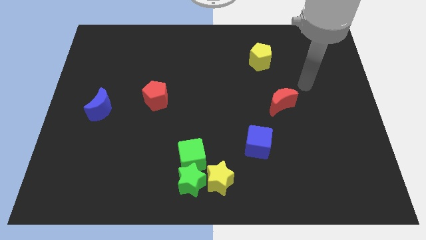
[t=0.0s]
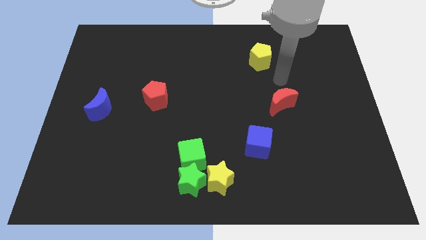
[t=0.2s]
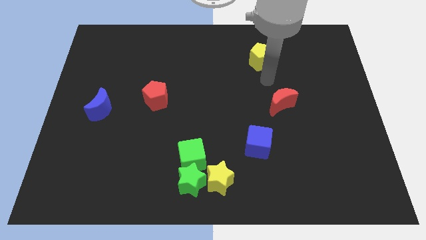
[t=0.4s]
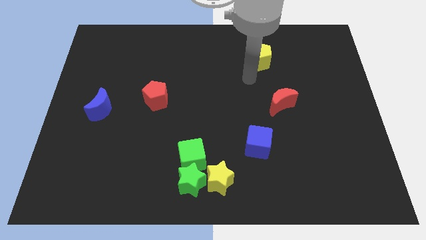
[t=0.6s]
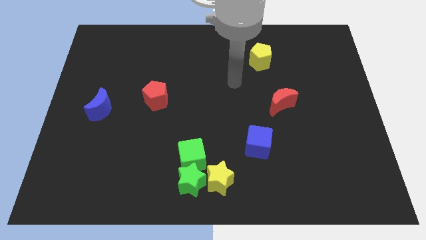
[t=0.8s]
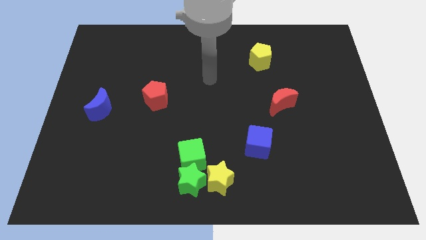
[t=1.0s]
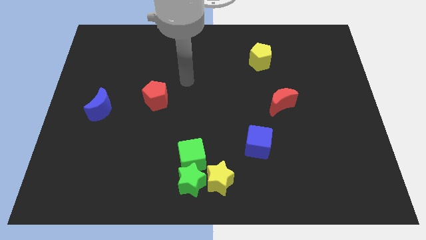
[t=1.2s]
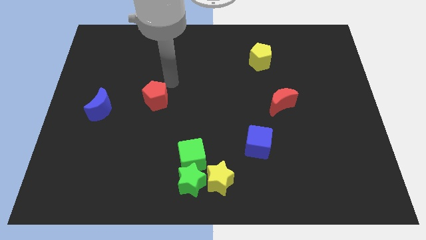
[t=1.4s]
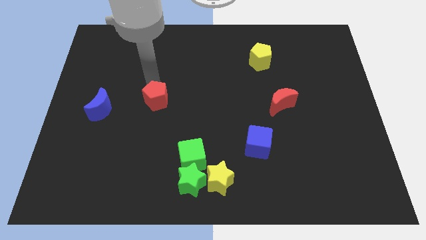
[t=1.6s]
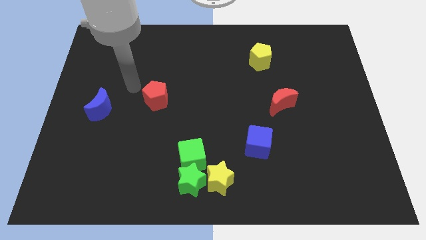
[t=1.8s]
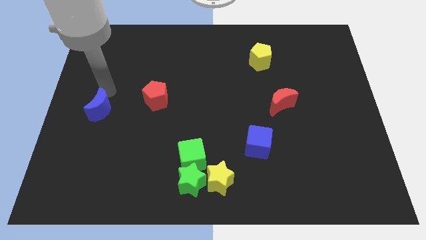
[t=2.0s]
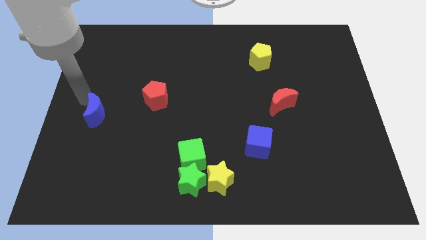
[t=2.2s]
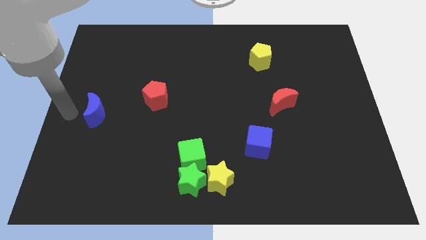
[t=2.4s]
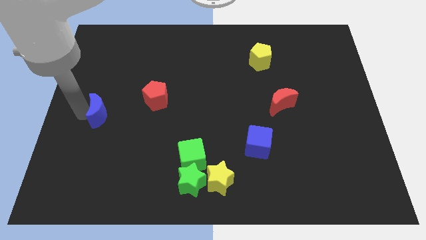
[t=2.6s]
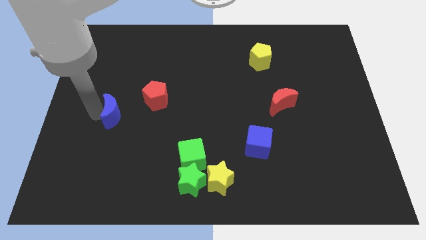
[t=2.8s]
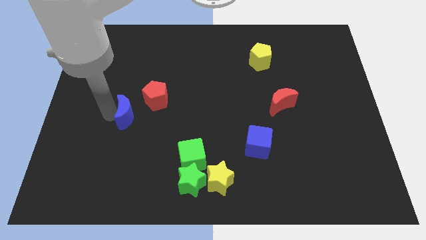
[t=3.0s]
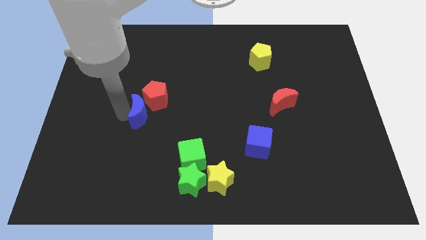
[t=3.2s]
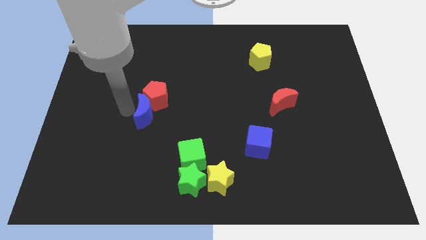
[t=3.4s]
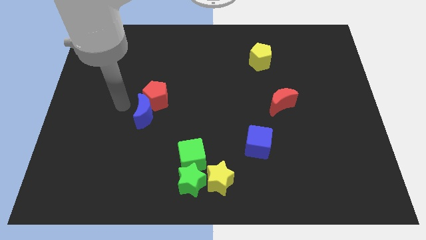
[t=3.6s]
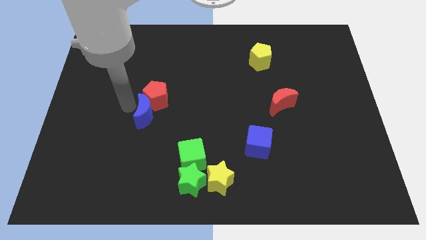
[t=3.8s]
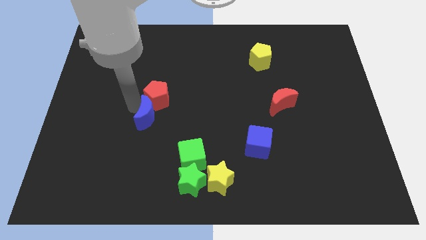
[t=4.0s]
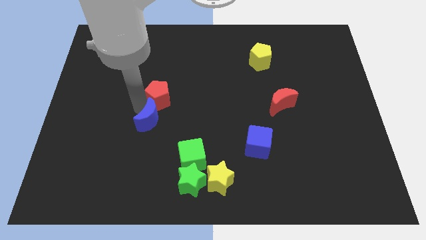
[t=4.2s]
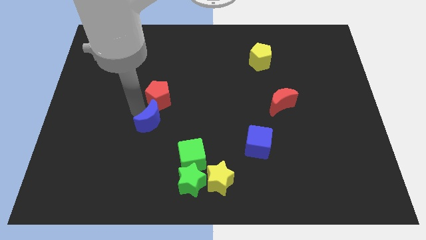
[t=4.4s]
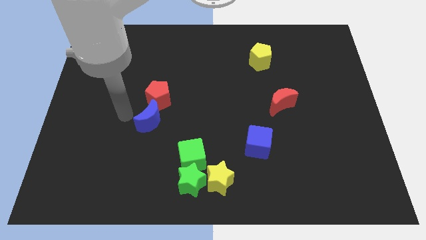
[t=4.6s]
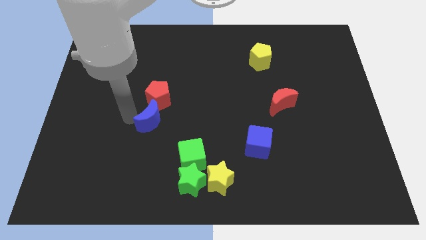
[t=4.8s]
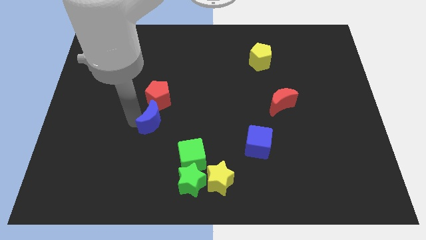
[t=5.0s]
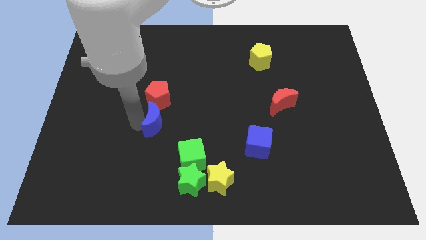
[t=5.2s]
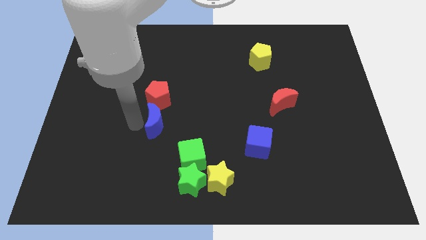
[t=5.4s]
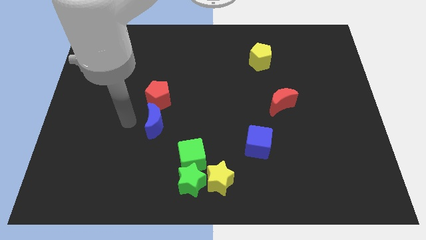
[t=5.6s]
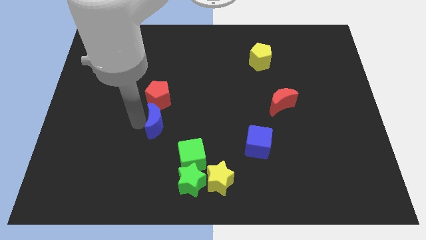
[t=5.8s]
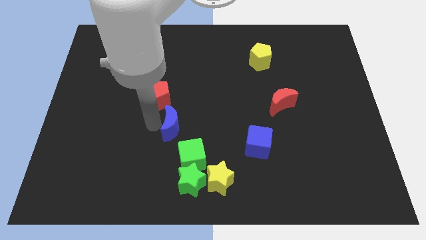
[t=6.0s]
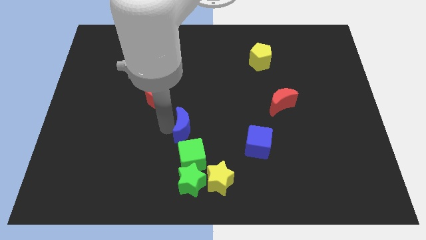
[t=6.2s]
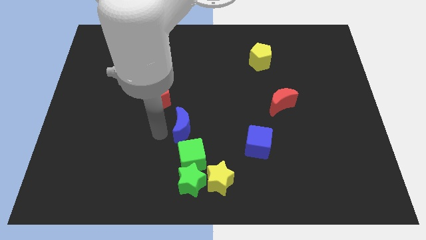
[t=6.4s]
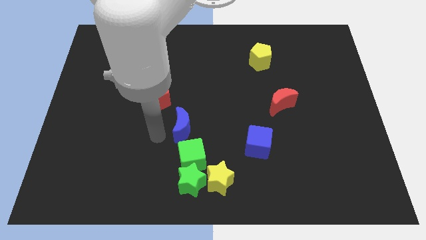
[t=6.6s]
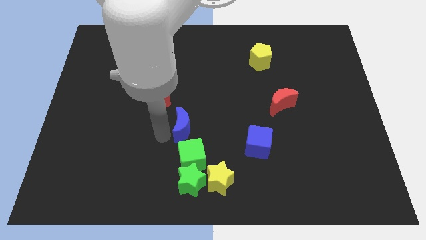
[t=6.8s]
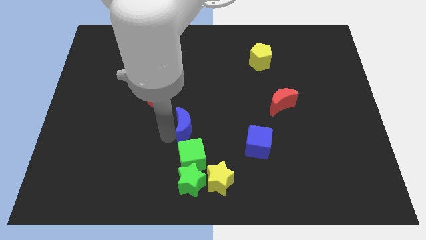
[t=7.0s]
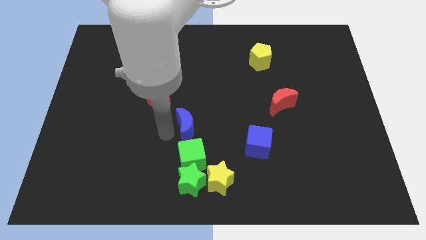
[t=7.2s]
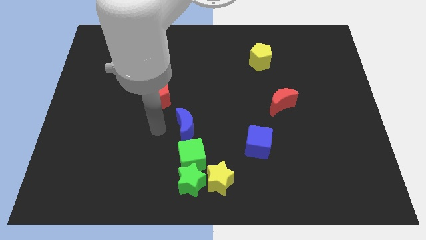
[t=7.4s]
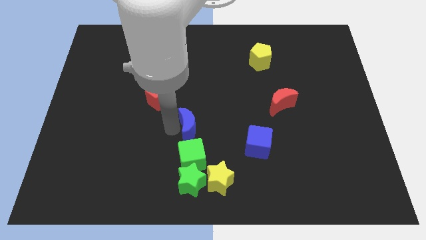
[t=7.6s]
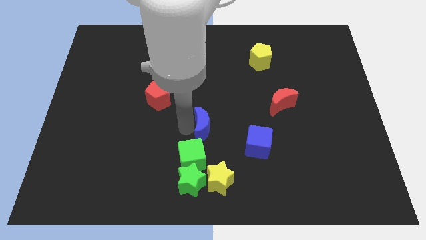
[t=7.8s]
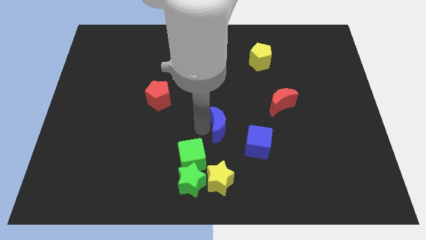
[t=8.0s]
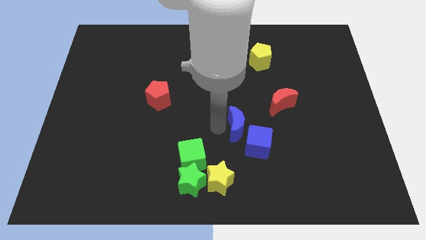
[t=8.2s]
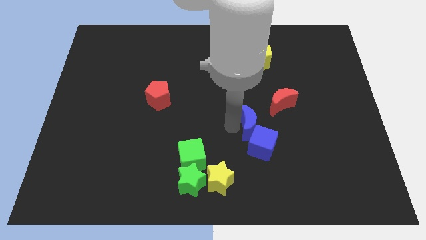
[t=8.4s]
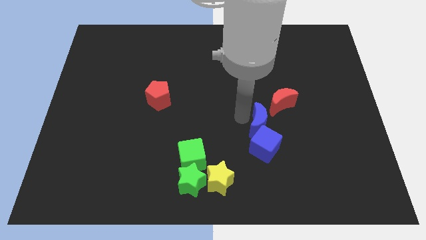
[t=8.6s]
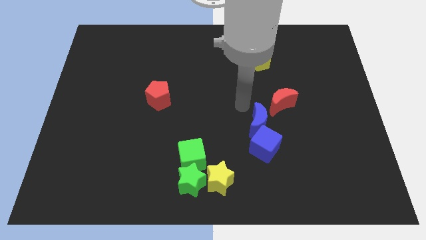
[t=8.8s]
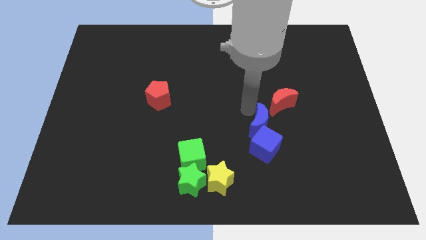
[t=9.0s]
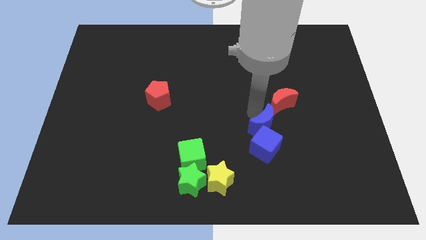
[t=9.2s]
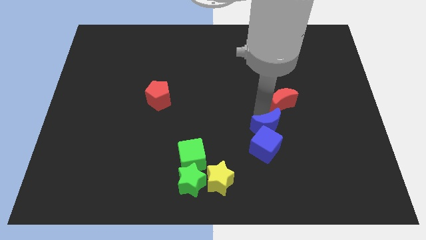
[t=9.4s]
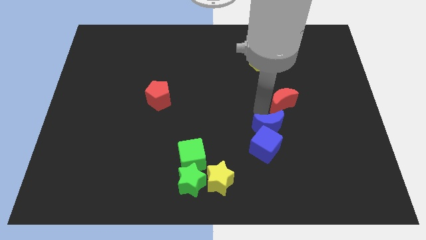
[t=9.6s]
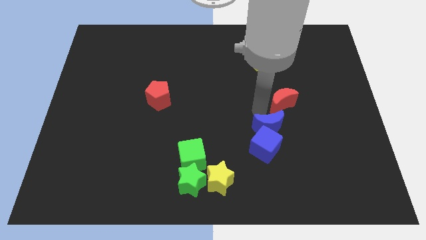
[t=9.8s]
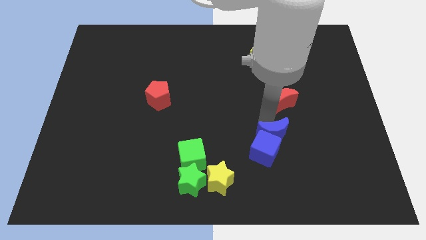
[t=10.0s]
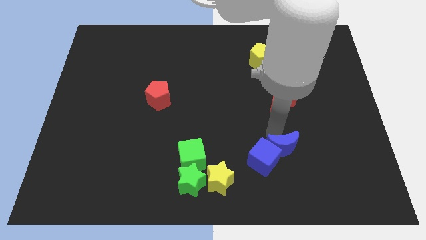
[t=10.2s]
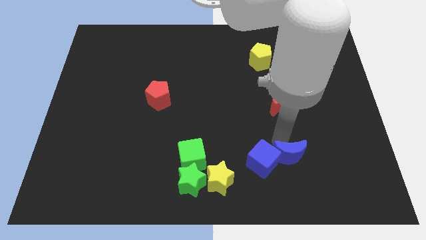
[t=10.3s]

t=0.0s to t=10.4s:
push the blue moon to the bottom right of the blue cube

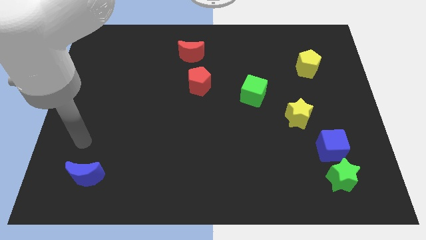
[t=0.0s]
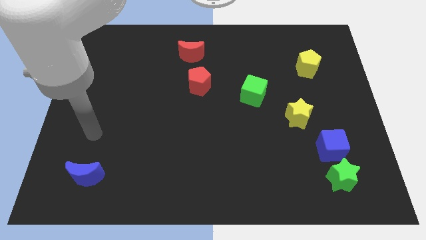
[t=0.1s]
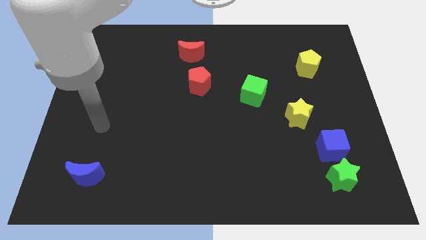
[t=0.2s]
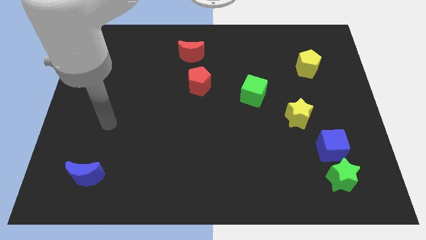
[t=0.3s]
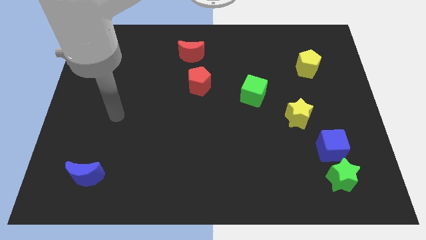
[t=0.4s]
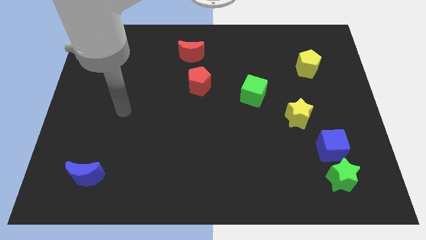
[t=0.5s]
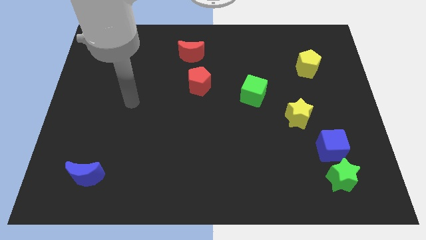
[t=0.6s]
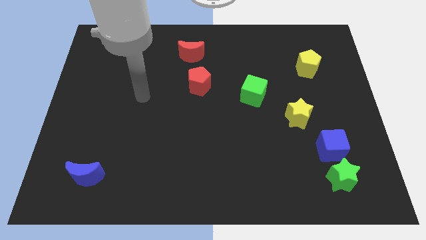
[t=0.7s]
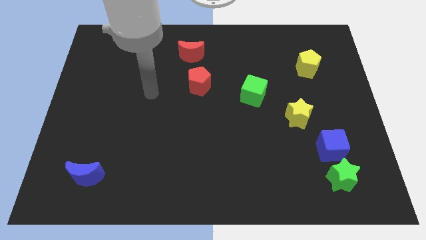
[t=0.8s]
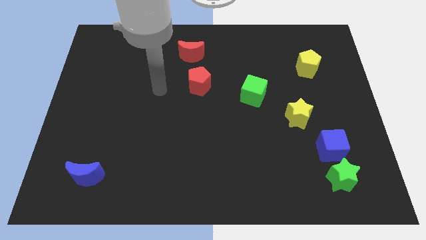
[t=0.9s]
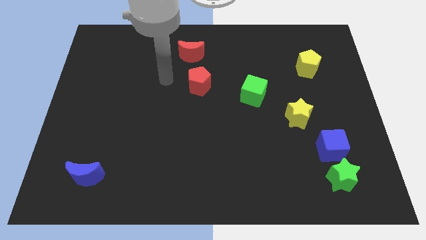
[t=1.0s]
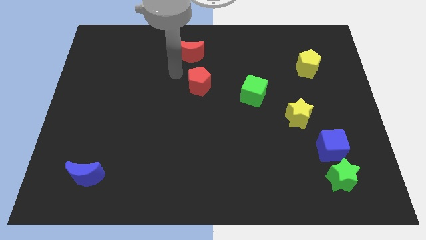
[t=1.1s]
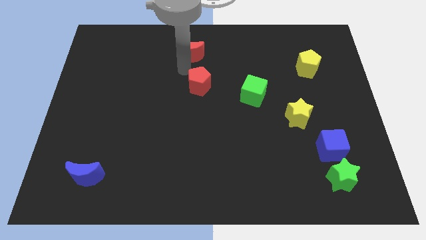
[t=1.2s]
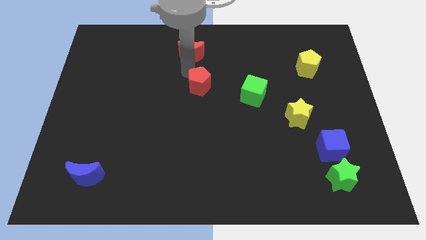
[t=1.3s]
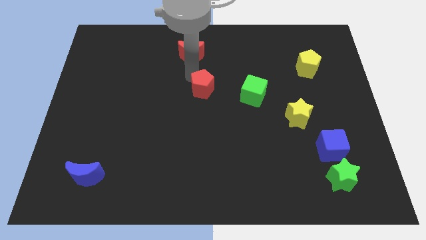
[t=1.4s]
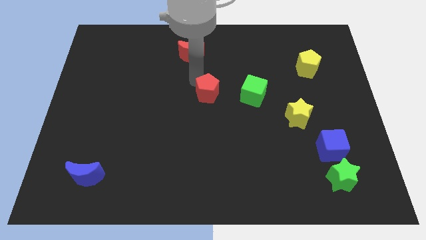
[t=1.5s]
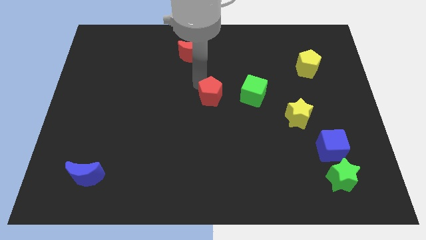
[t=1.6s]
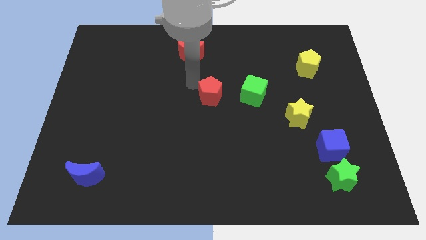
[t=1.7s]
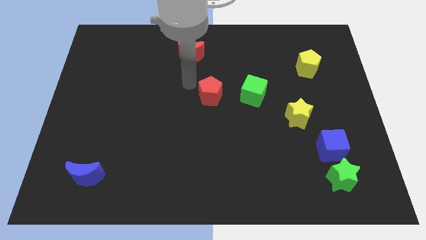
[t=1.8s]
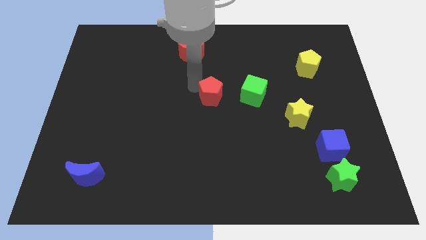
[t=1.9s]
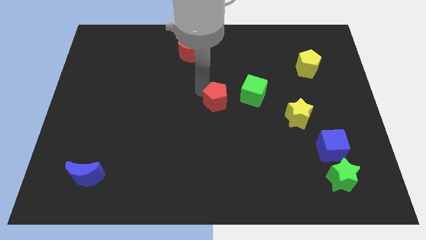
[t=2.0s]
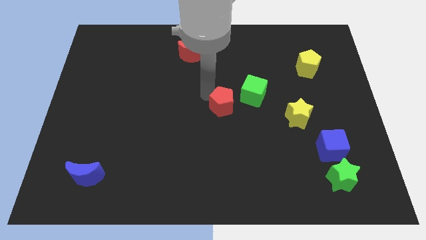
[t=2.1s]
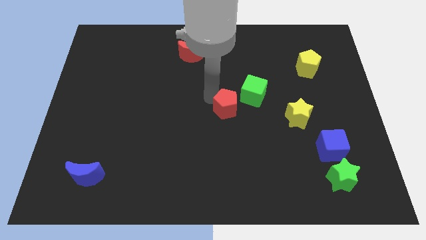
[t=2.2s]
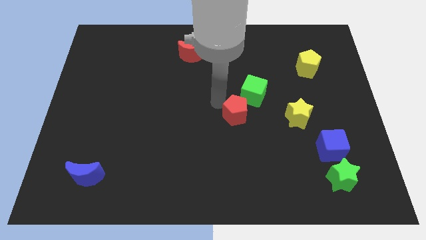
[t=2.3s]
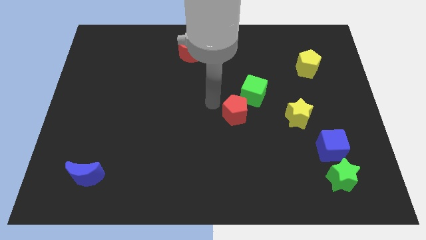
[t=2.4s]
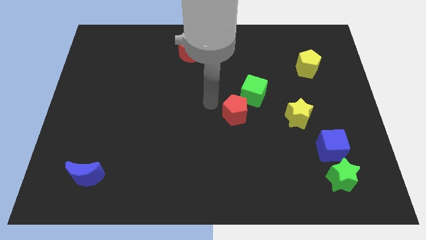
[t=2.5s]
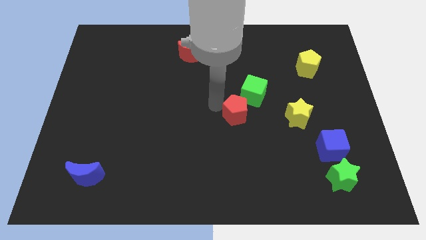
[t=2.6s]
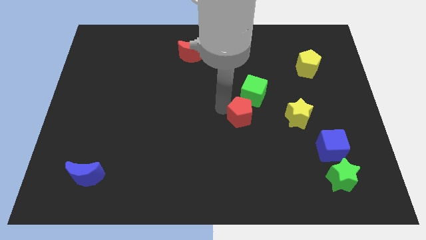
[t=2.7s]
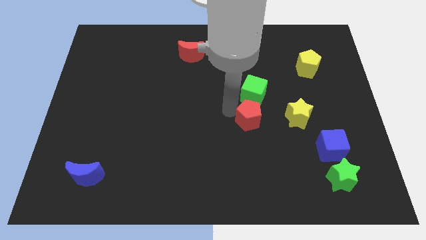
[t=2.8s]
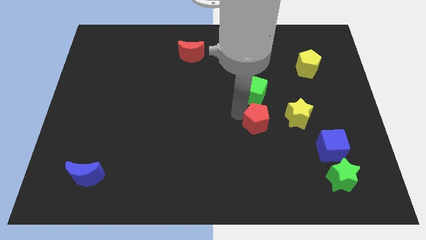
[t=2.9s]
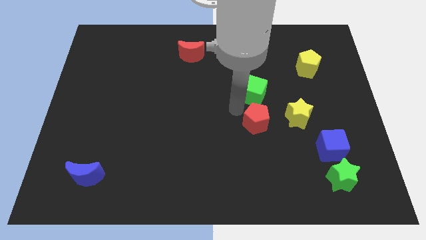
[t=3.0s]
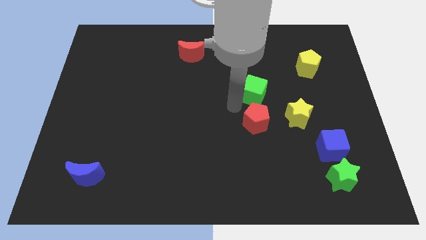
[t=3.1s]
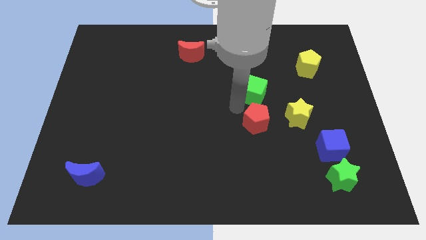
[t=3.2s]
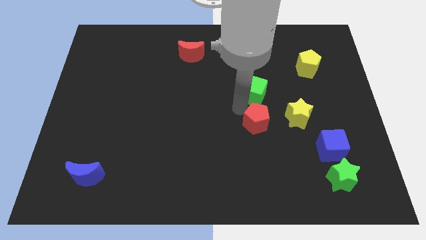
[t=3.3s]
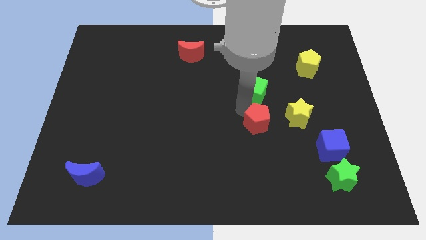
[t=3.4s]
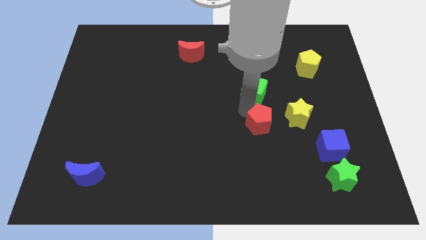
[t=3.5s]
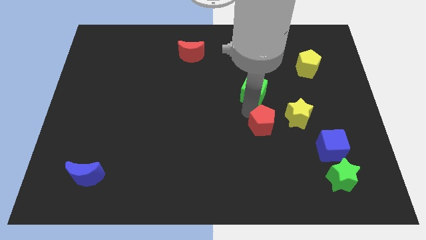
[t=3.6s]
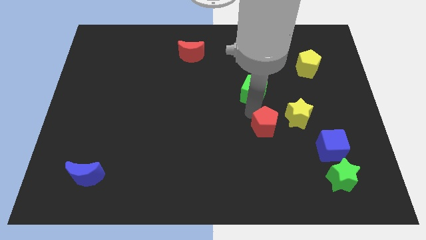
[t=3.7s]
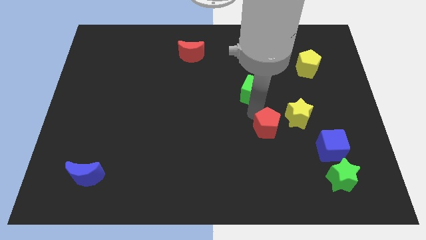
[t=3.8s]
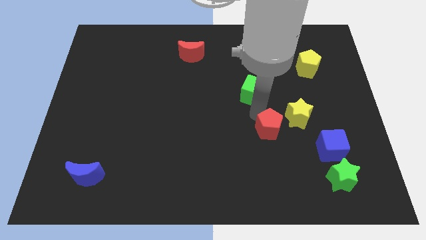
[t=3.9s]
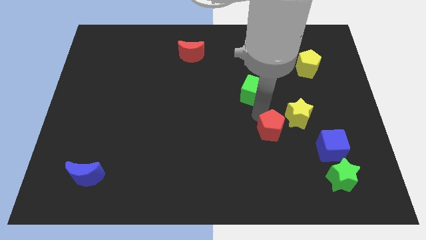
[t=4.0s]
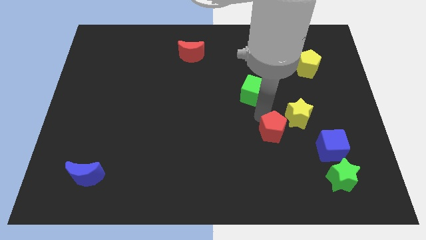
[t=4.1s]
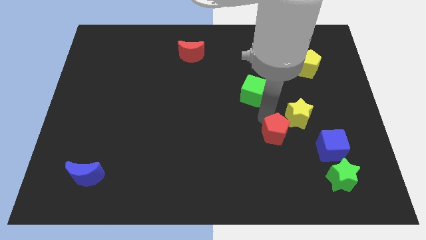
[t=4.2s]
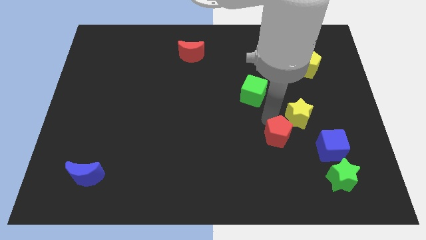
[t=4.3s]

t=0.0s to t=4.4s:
push the red pentagon to the bottom of the yellow star
